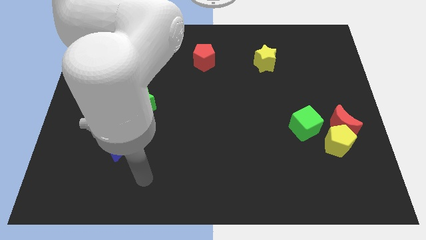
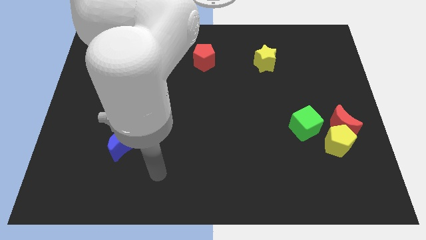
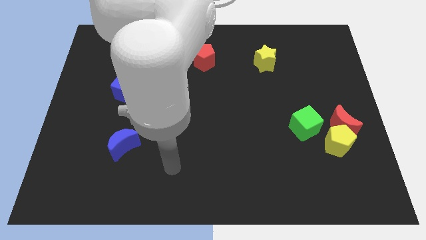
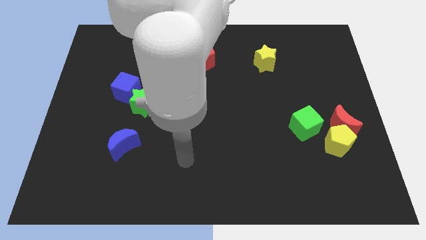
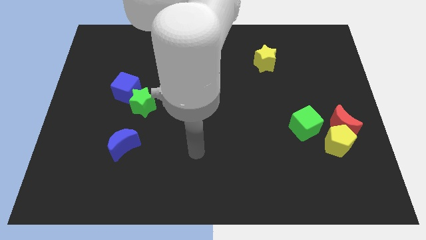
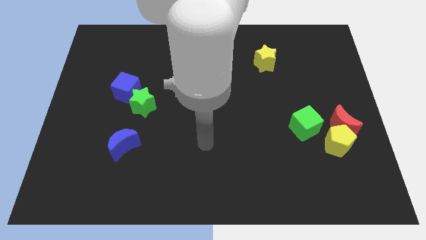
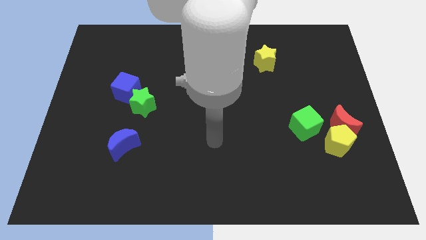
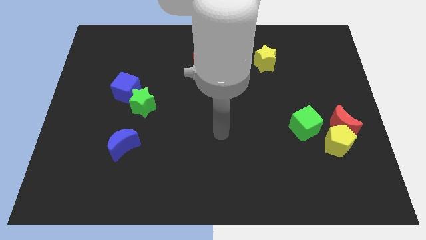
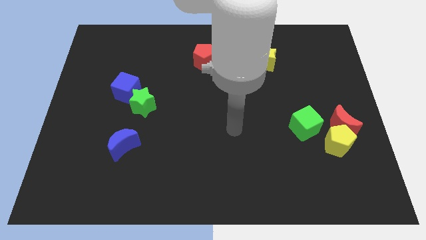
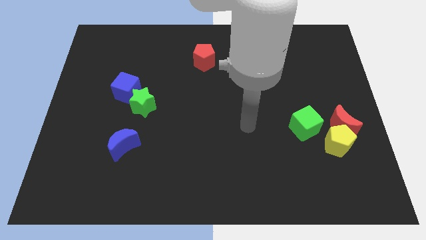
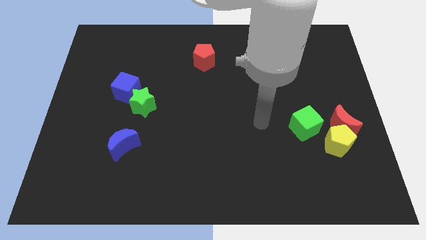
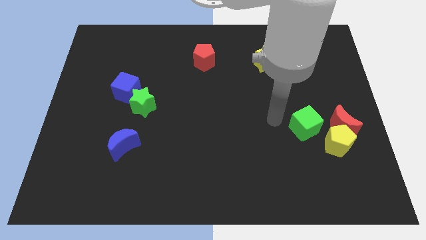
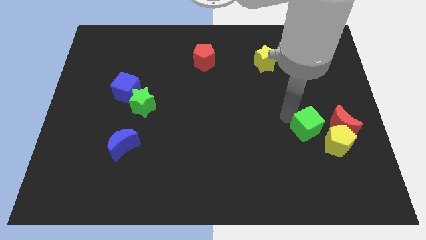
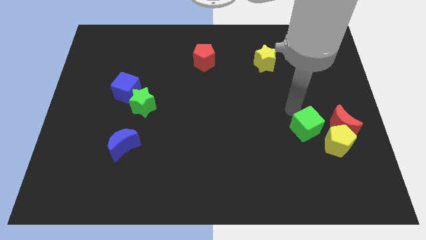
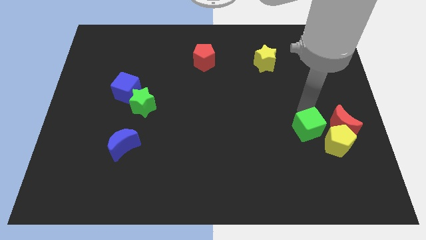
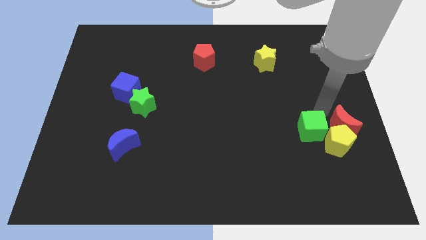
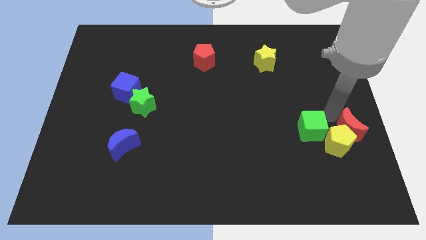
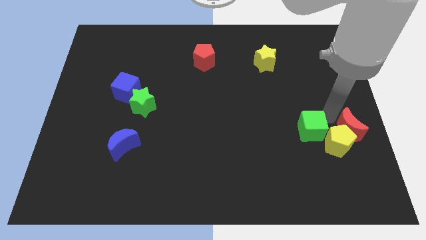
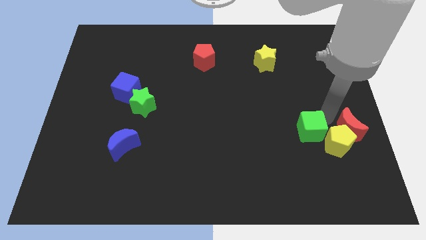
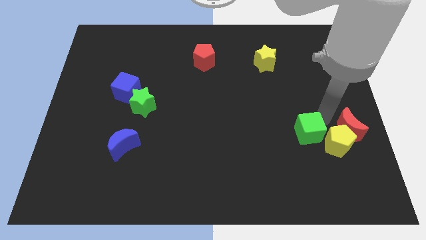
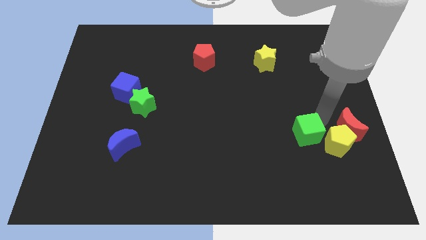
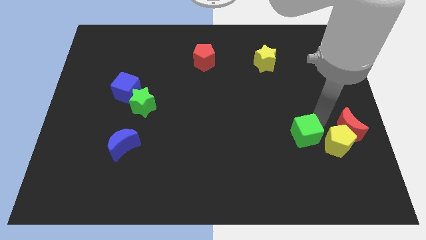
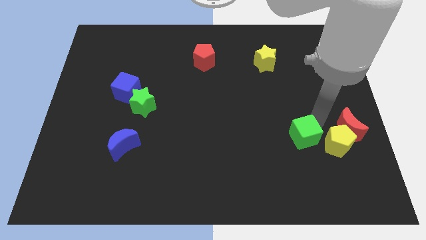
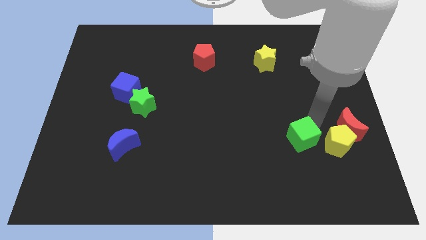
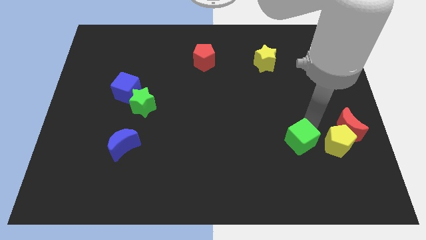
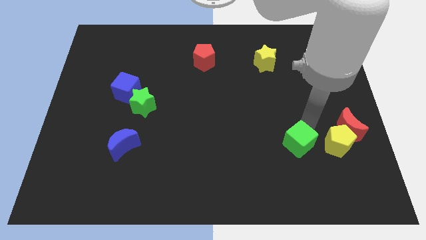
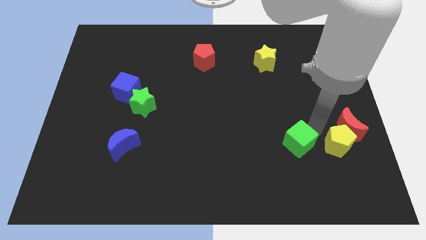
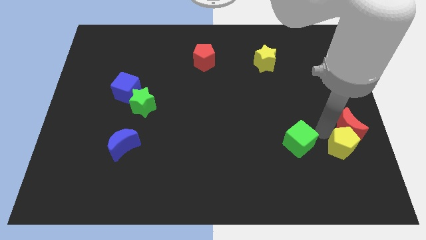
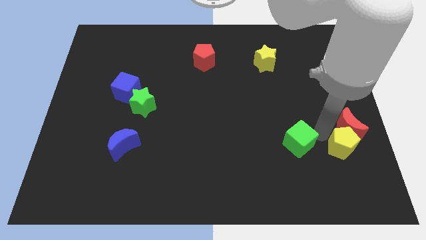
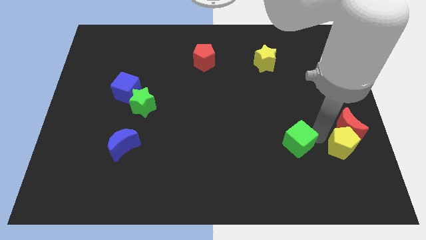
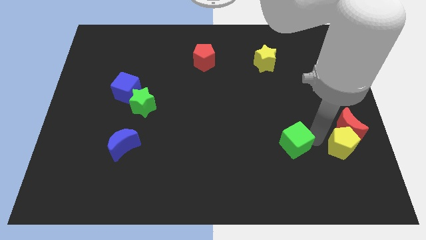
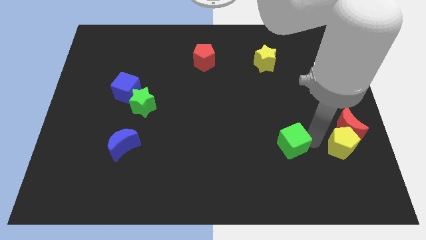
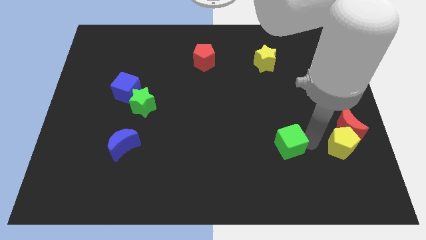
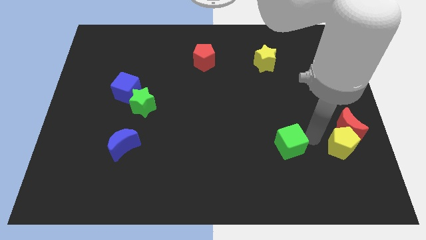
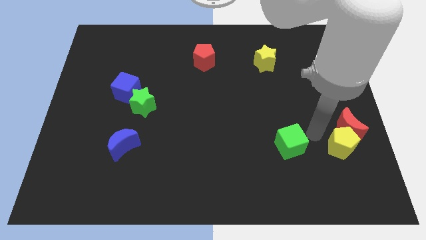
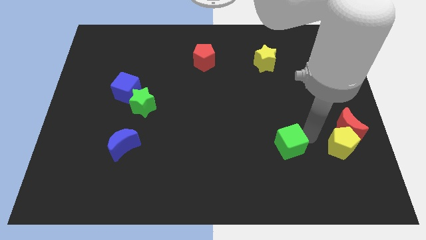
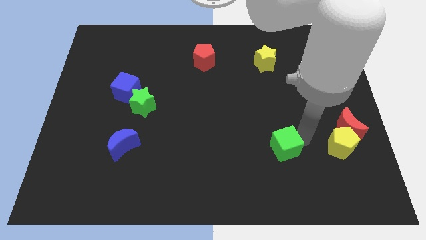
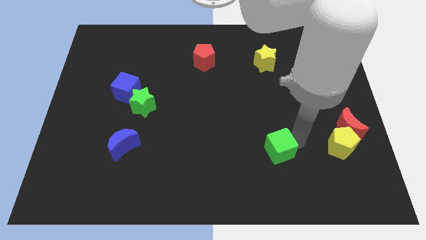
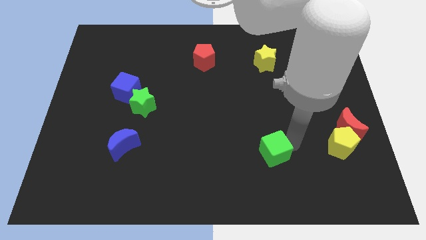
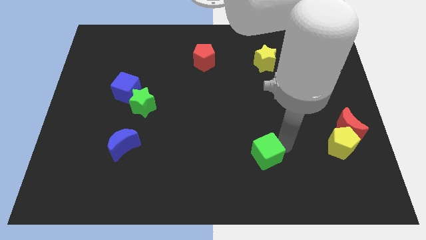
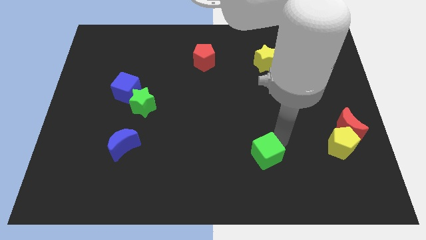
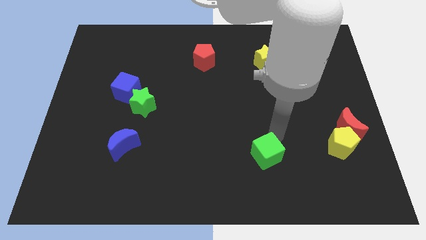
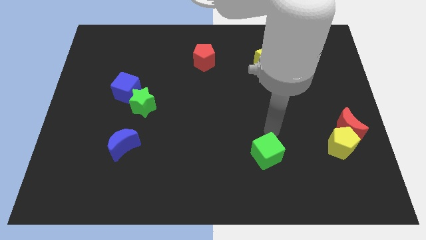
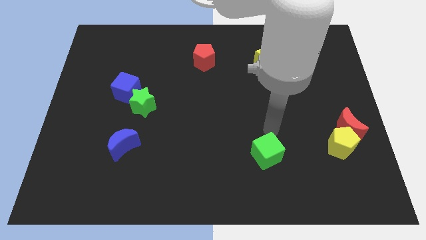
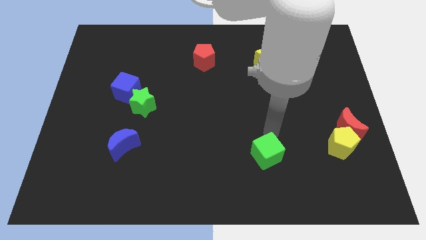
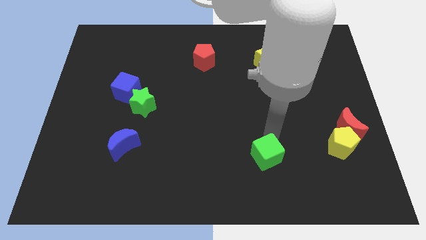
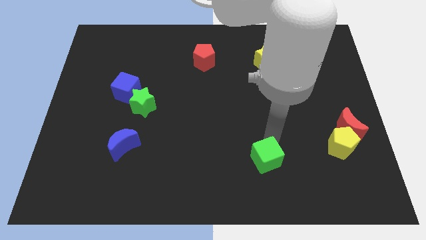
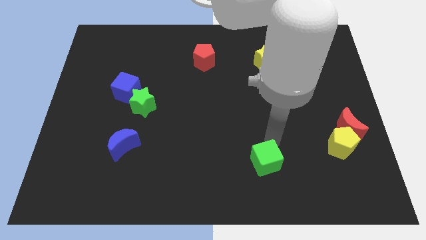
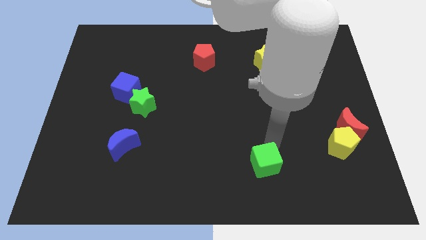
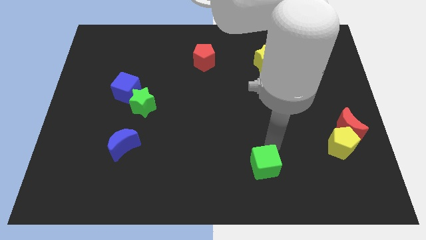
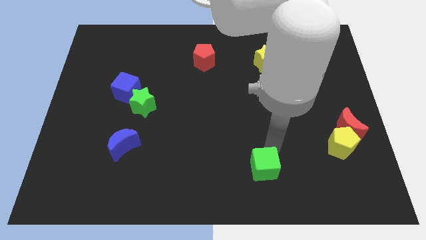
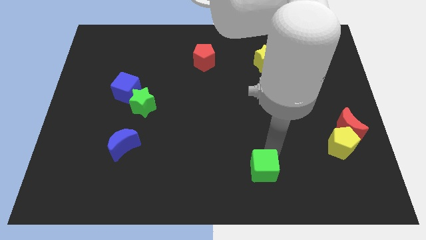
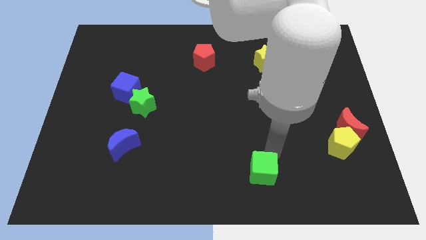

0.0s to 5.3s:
move the green cube to the bottom side

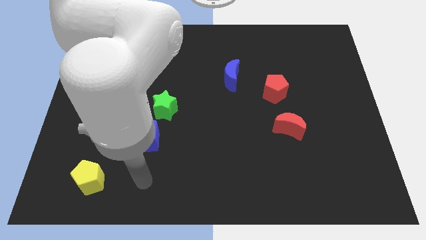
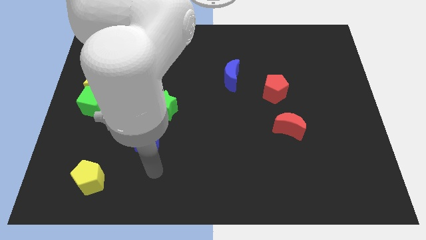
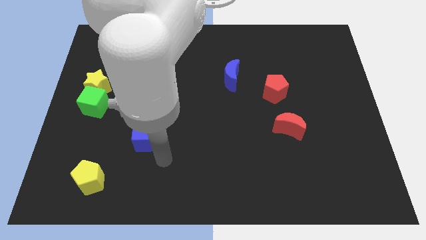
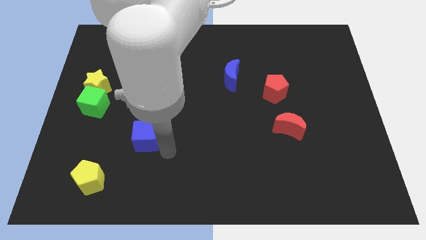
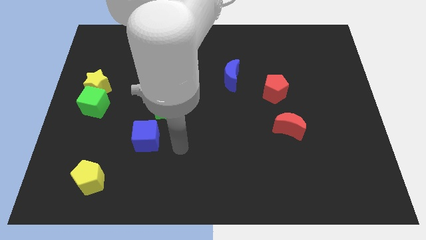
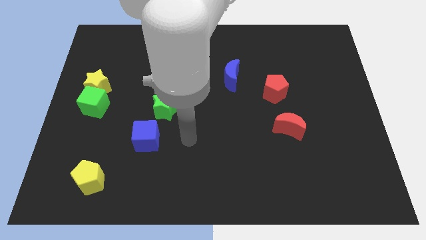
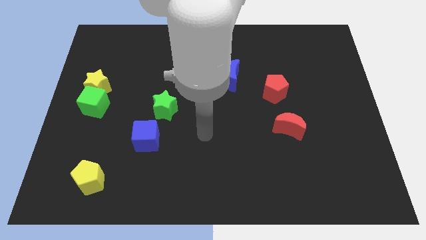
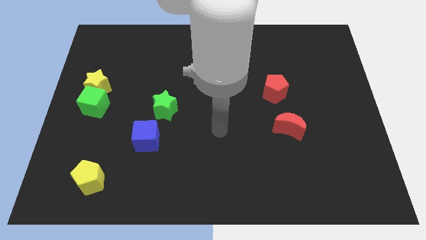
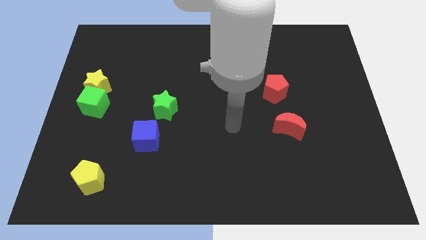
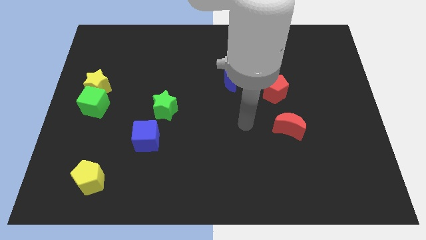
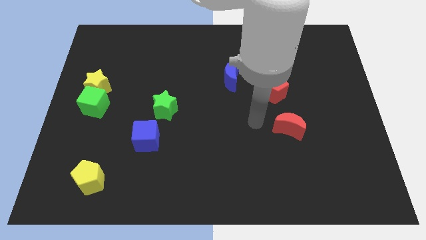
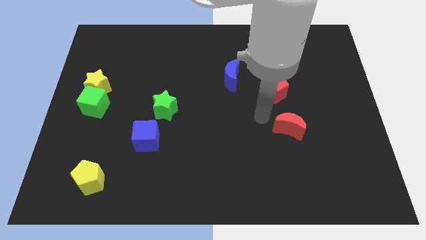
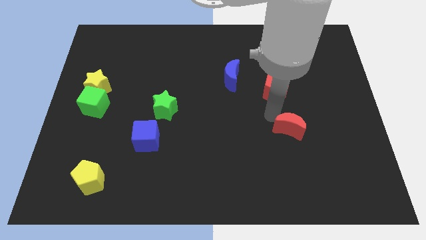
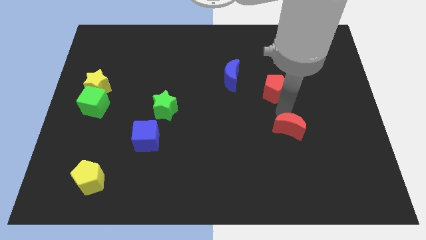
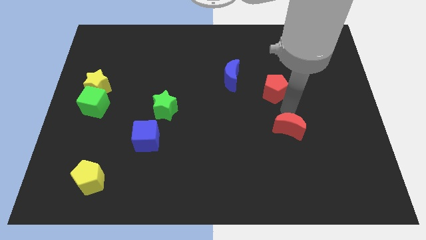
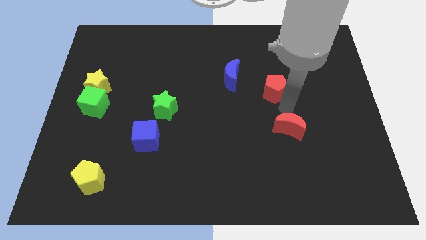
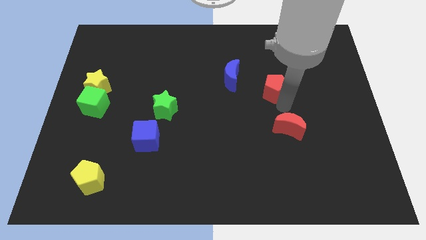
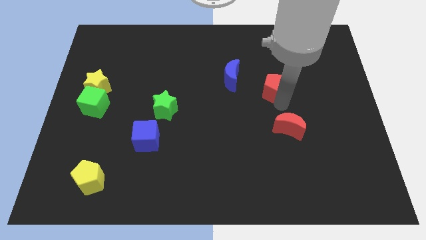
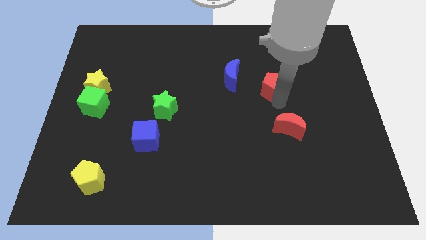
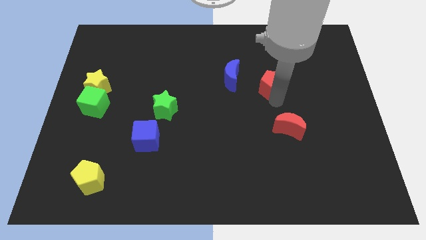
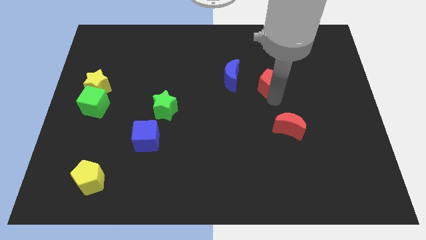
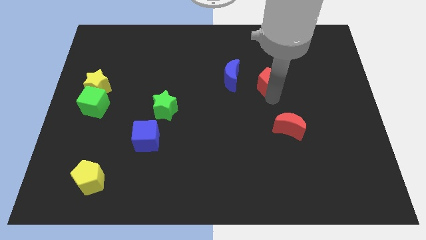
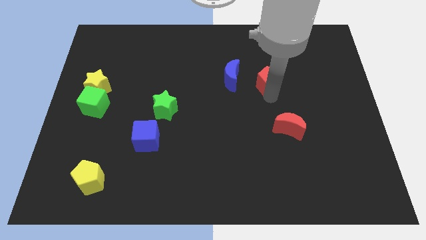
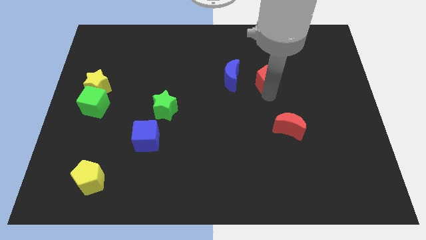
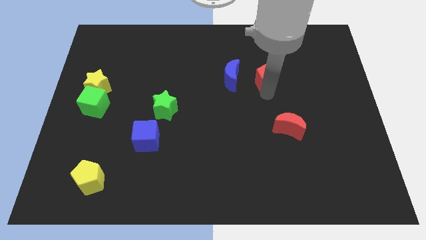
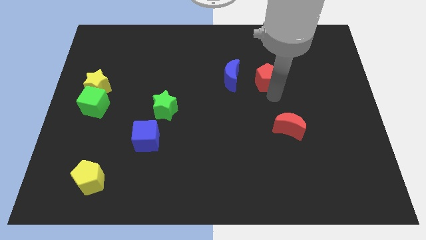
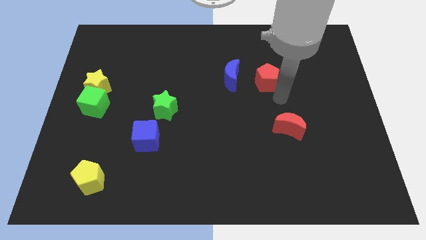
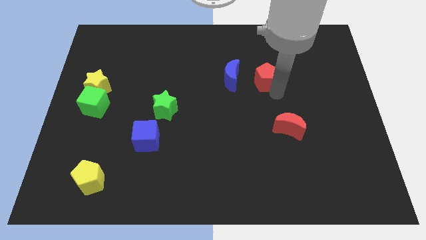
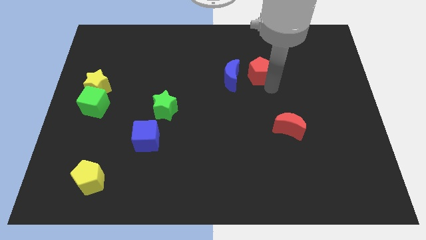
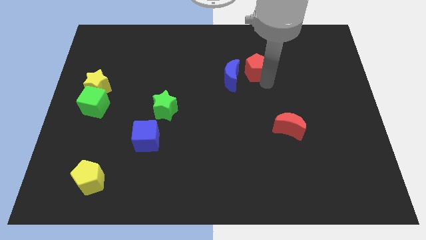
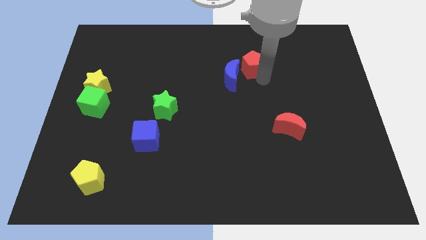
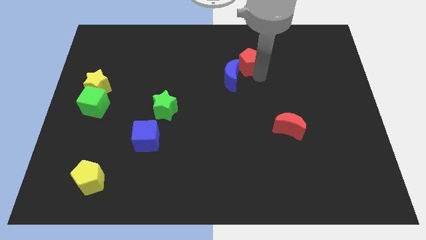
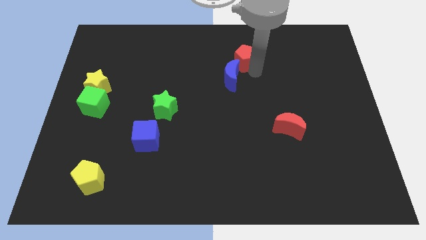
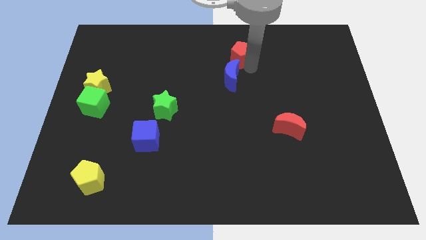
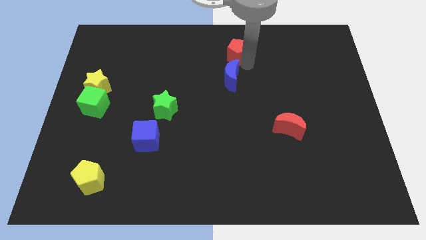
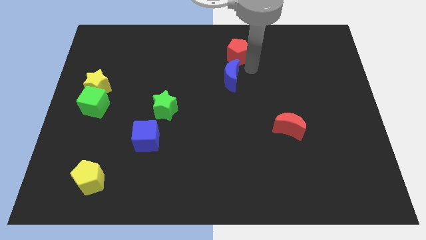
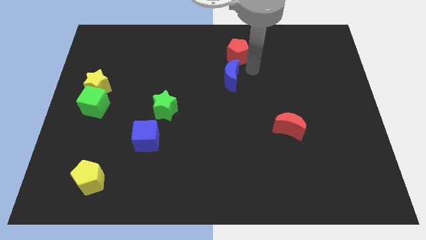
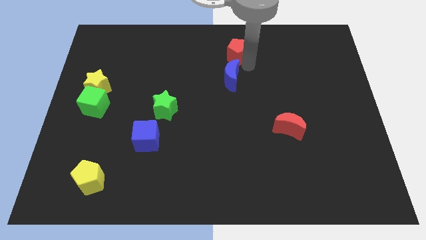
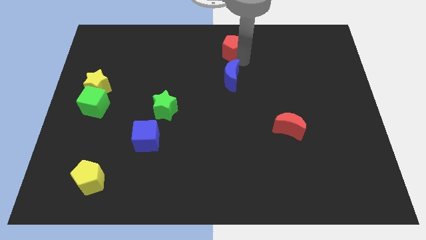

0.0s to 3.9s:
put the red pentagon to the top
